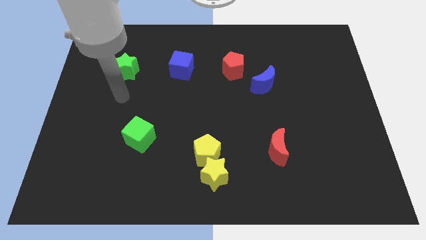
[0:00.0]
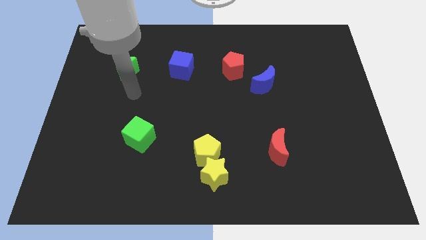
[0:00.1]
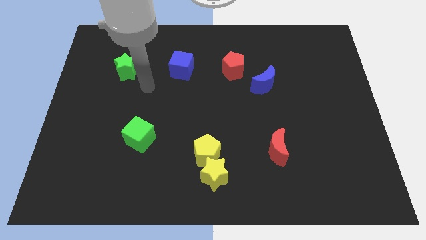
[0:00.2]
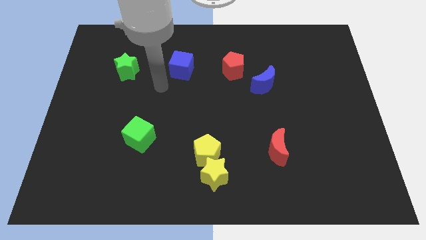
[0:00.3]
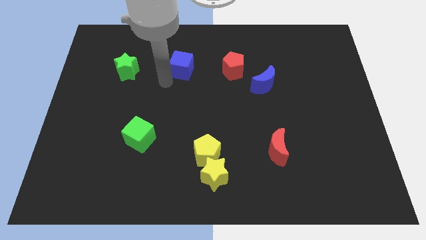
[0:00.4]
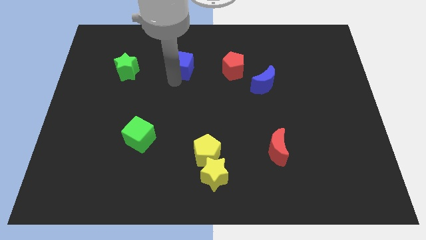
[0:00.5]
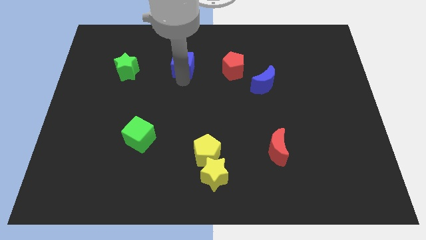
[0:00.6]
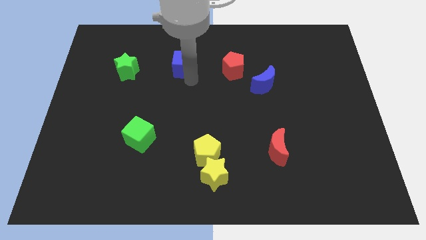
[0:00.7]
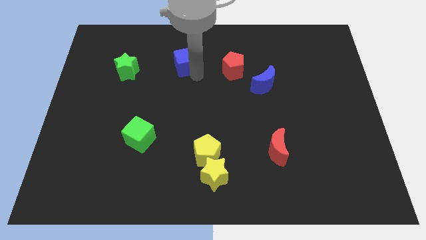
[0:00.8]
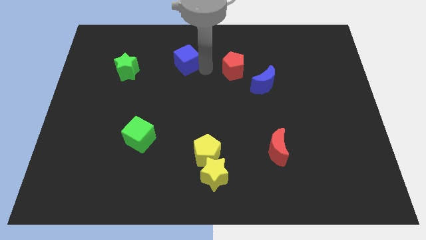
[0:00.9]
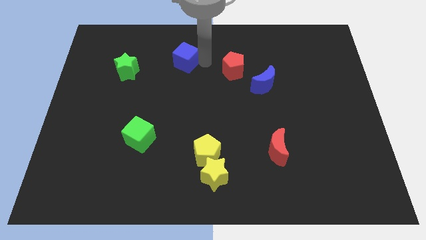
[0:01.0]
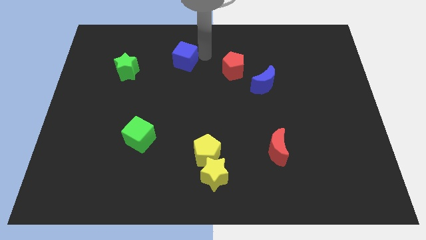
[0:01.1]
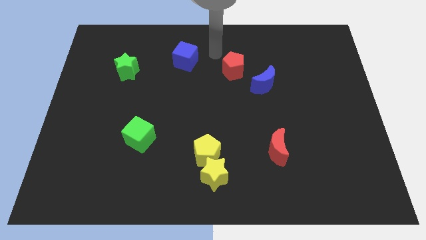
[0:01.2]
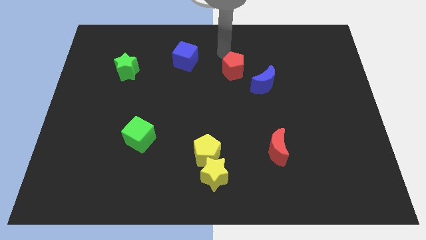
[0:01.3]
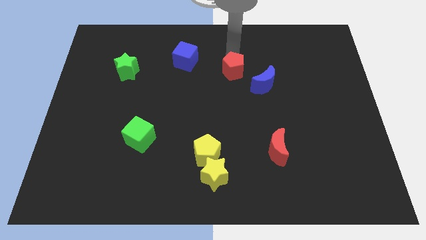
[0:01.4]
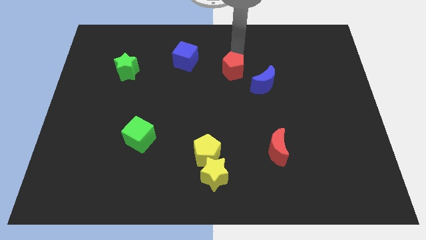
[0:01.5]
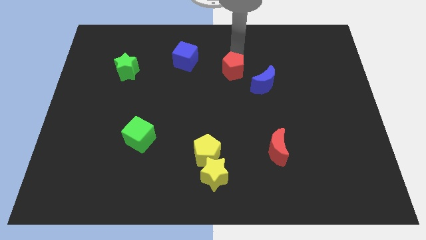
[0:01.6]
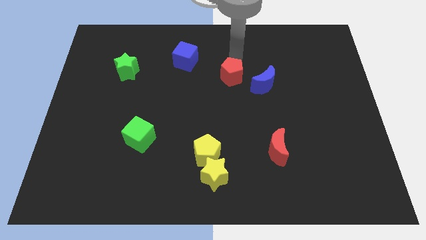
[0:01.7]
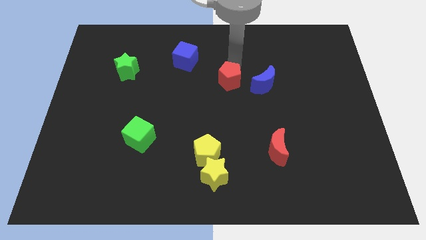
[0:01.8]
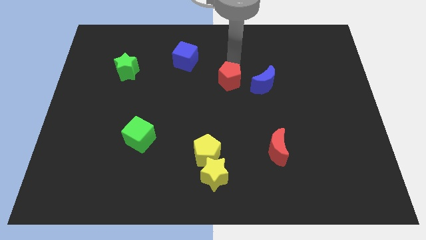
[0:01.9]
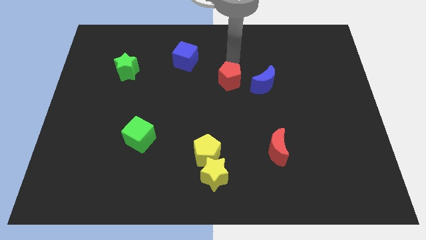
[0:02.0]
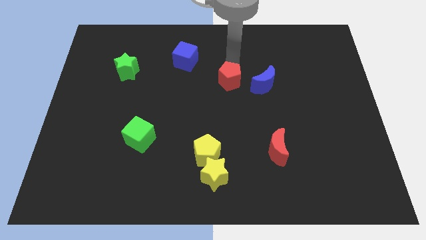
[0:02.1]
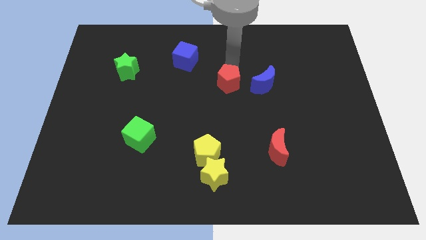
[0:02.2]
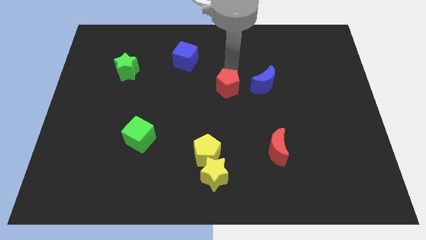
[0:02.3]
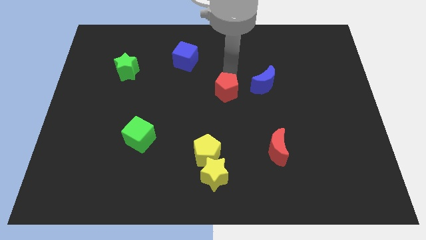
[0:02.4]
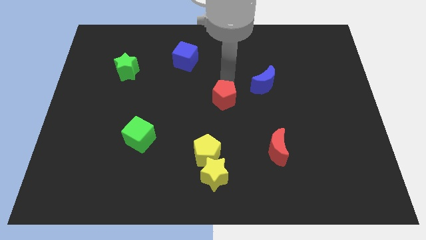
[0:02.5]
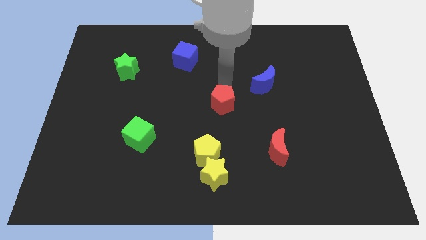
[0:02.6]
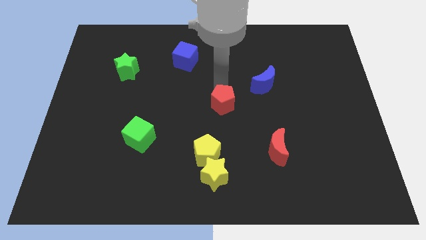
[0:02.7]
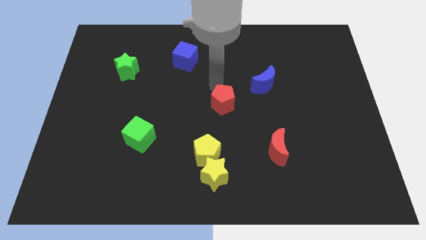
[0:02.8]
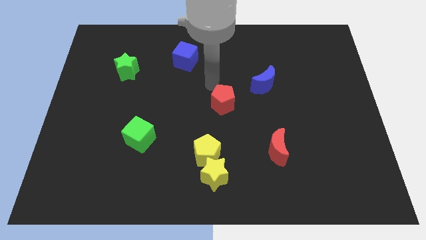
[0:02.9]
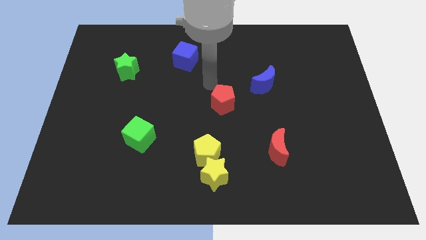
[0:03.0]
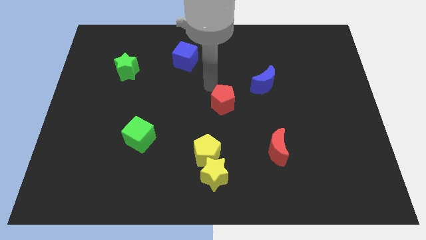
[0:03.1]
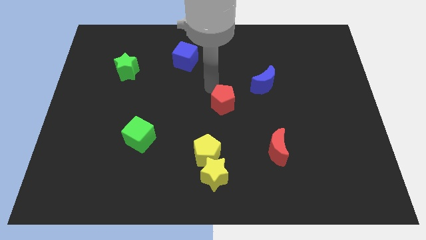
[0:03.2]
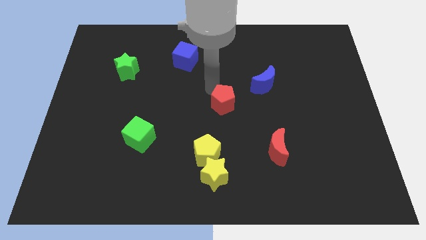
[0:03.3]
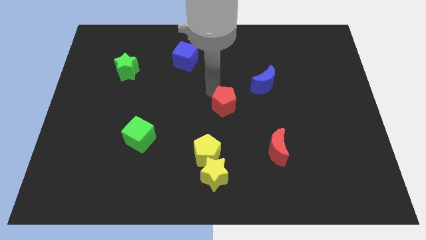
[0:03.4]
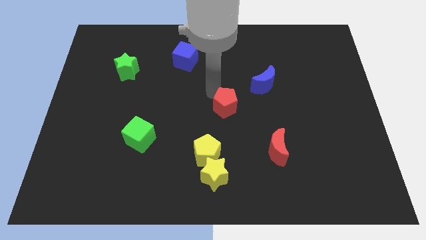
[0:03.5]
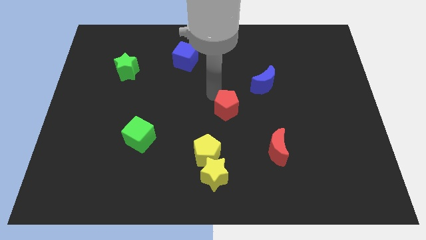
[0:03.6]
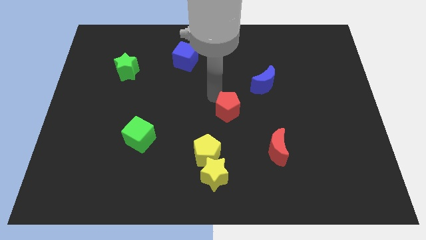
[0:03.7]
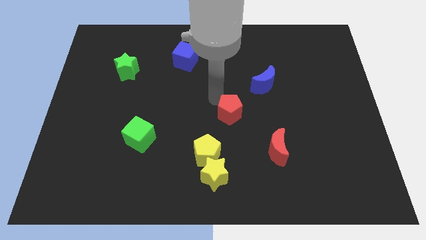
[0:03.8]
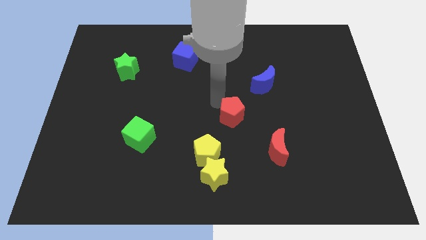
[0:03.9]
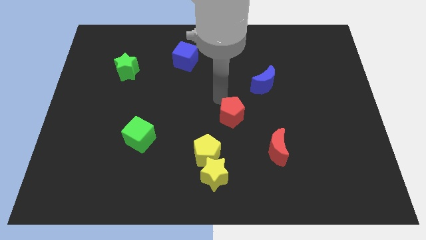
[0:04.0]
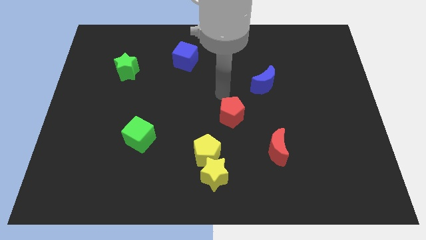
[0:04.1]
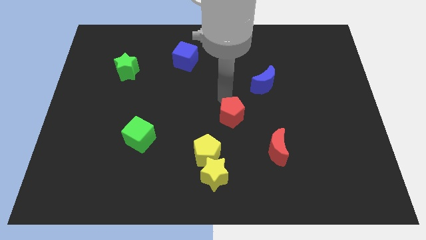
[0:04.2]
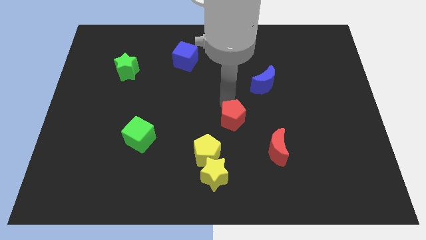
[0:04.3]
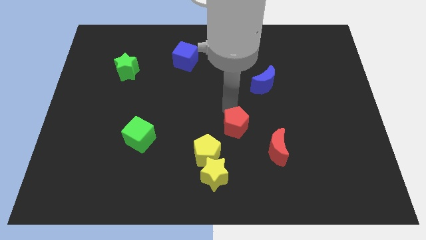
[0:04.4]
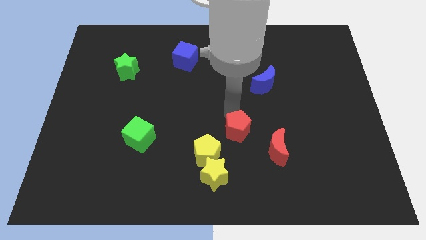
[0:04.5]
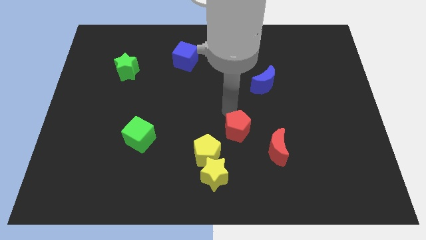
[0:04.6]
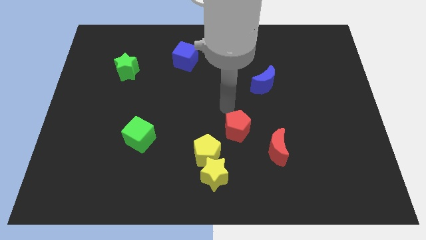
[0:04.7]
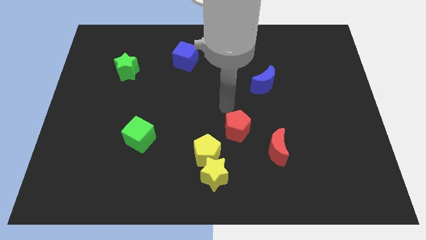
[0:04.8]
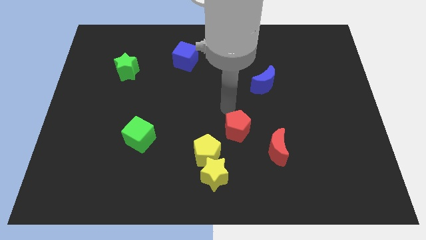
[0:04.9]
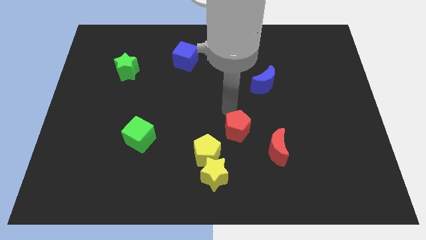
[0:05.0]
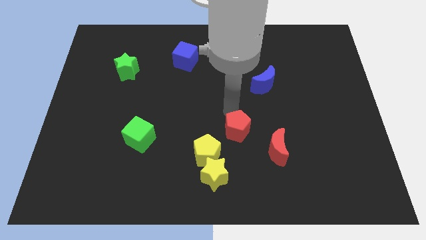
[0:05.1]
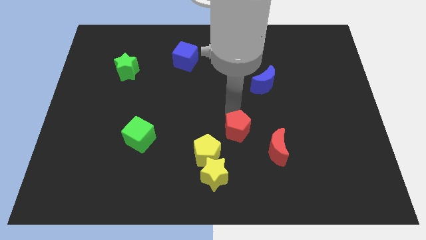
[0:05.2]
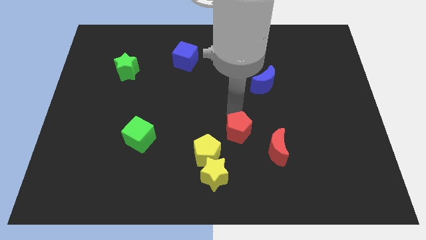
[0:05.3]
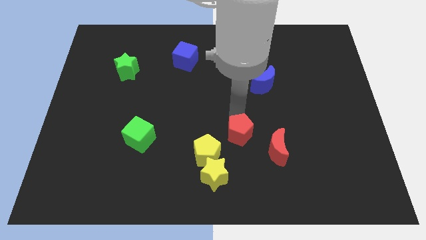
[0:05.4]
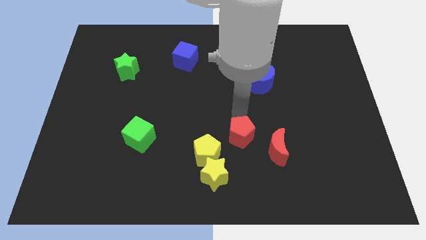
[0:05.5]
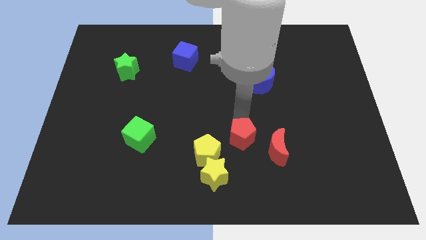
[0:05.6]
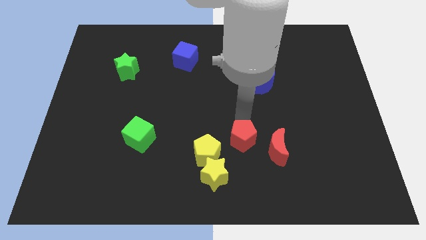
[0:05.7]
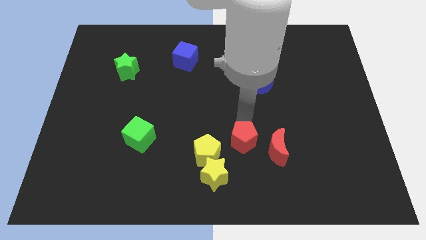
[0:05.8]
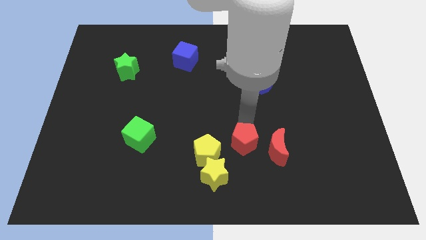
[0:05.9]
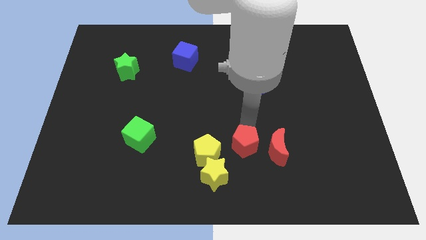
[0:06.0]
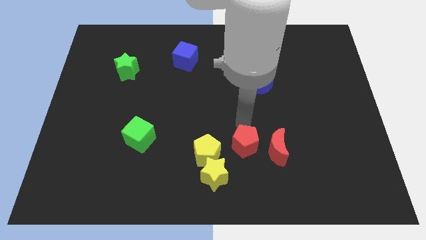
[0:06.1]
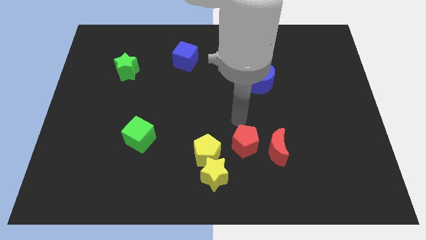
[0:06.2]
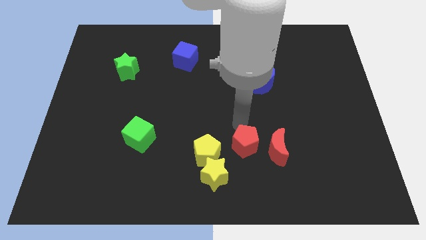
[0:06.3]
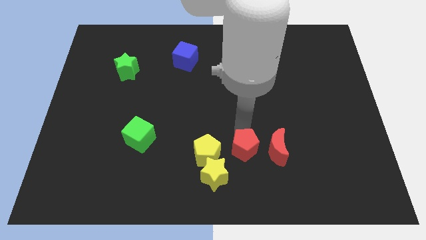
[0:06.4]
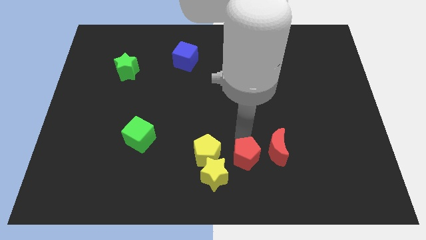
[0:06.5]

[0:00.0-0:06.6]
slide the red pentagon to the bottom left of the red moon

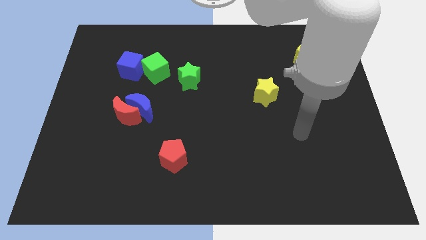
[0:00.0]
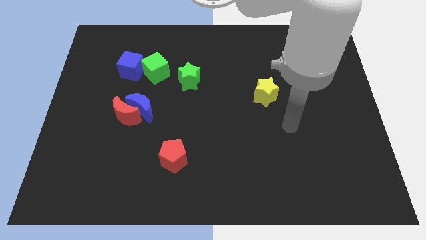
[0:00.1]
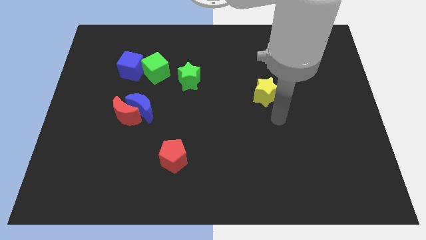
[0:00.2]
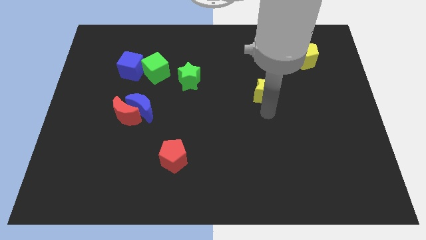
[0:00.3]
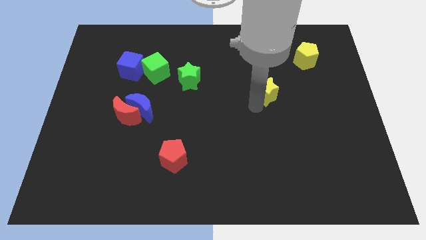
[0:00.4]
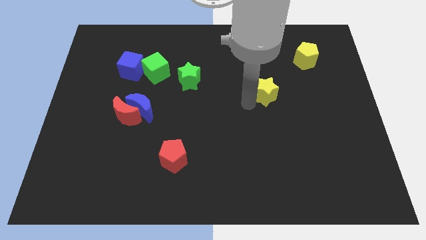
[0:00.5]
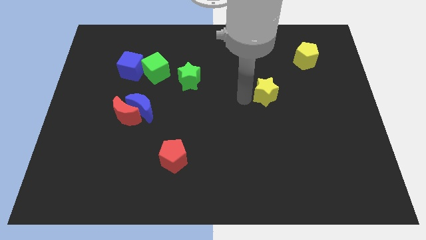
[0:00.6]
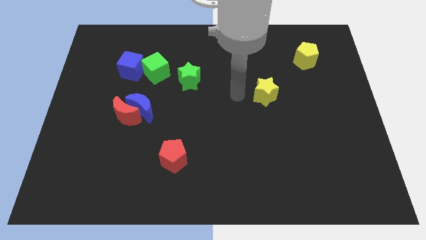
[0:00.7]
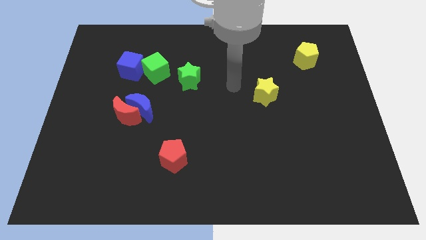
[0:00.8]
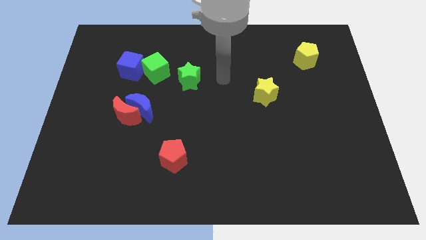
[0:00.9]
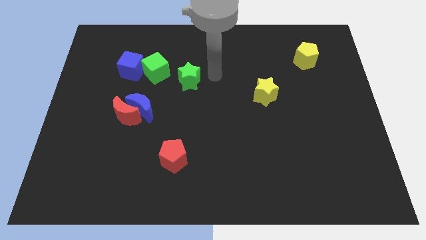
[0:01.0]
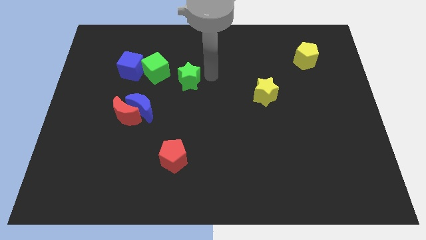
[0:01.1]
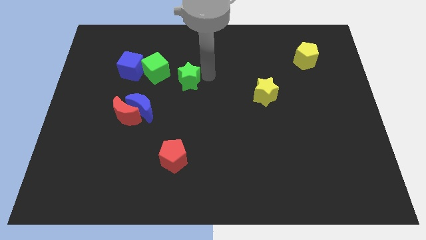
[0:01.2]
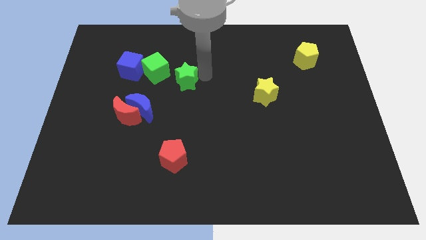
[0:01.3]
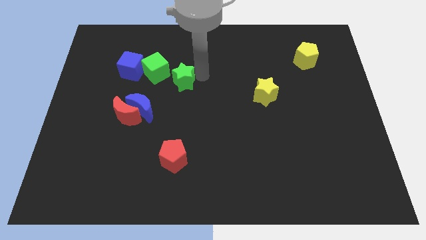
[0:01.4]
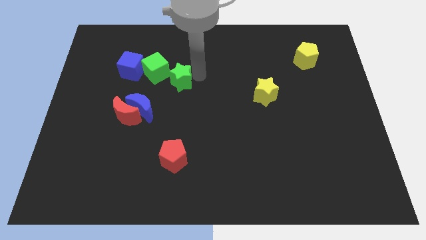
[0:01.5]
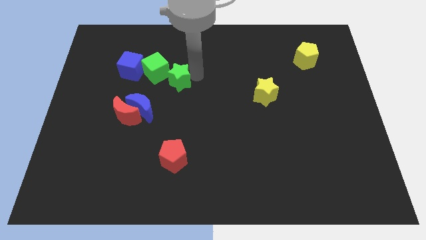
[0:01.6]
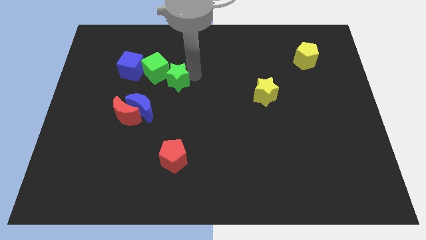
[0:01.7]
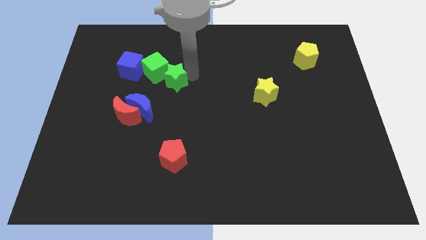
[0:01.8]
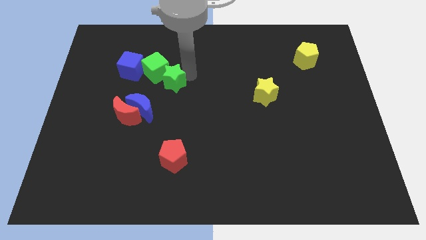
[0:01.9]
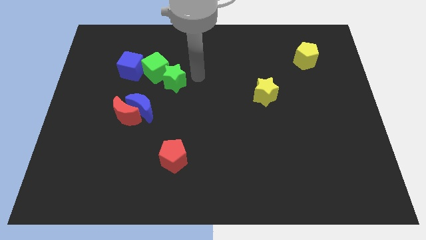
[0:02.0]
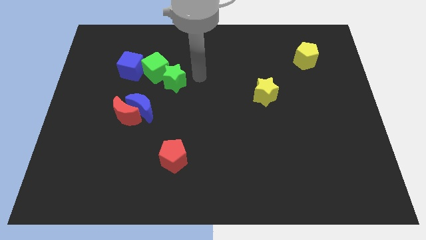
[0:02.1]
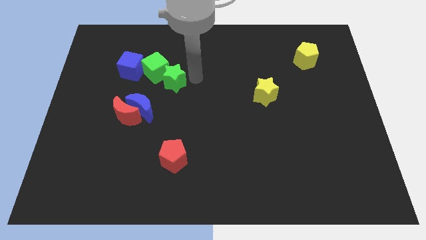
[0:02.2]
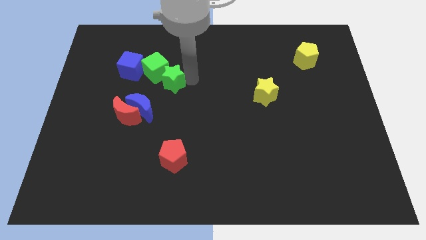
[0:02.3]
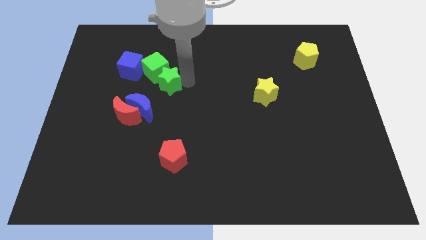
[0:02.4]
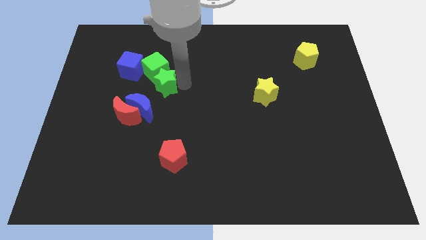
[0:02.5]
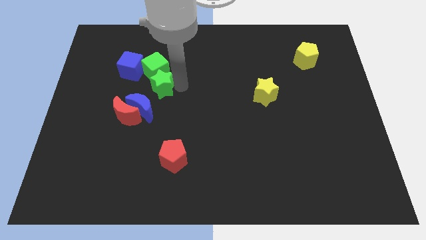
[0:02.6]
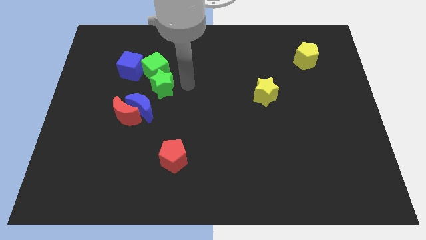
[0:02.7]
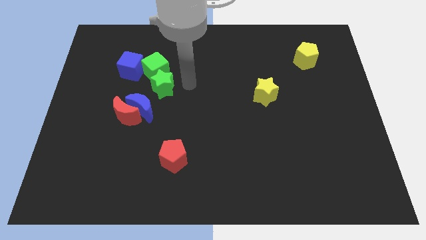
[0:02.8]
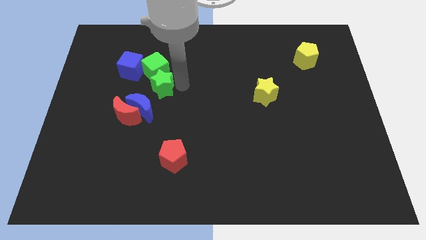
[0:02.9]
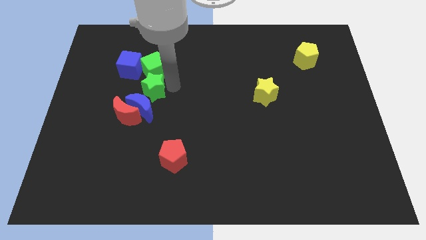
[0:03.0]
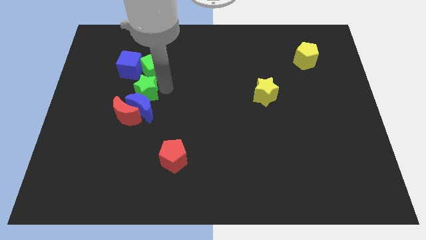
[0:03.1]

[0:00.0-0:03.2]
move the green star diagonally up and to the left of the blue moon
